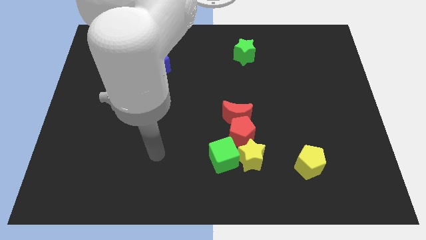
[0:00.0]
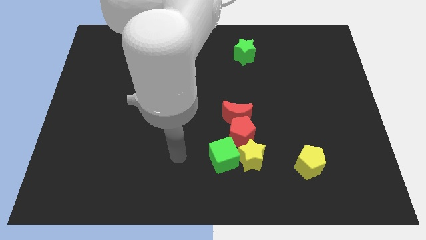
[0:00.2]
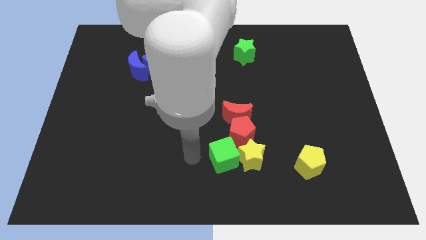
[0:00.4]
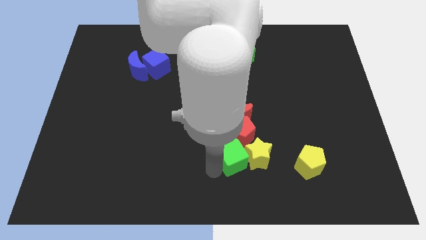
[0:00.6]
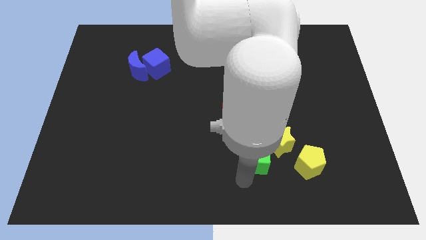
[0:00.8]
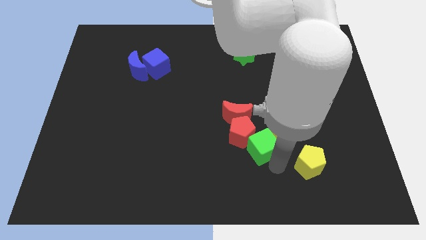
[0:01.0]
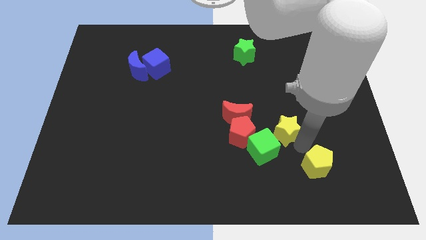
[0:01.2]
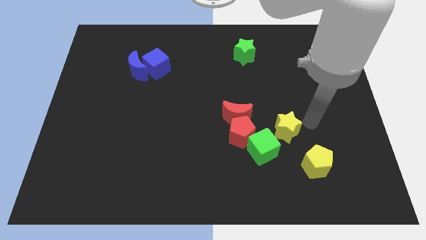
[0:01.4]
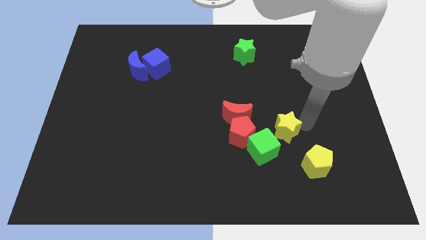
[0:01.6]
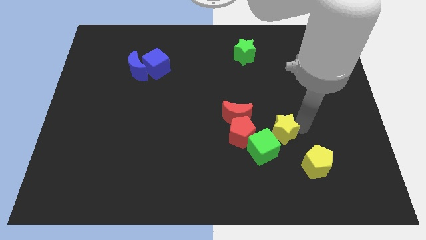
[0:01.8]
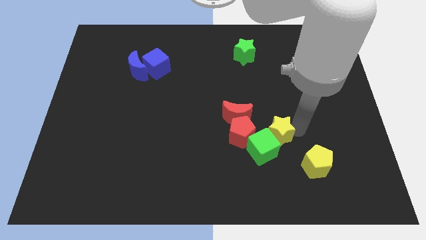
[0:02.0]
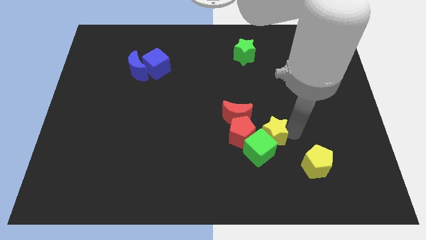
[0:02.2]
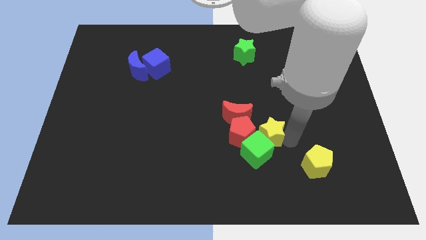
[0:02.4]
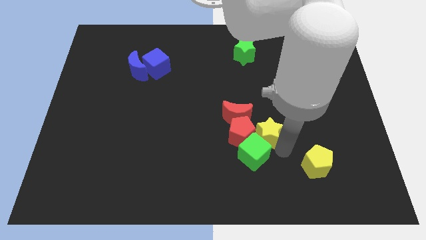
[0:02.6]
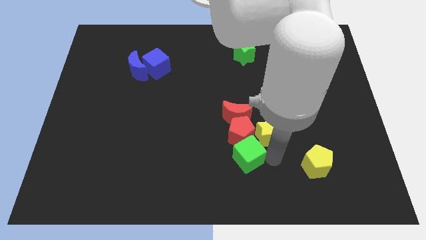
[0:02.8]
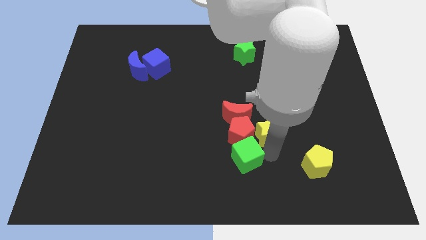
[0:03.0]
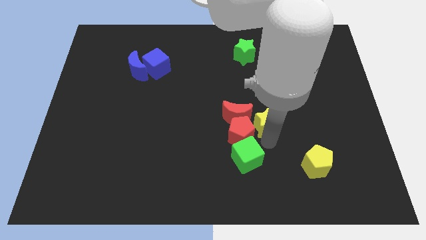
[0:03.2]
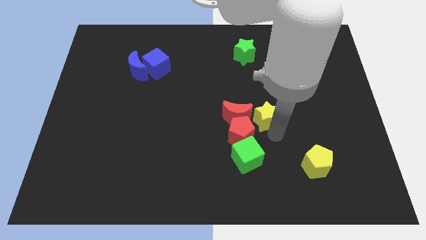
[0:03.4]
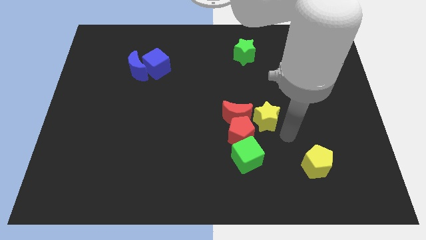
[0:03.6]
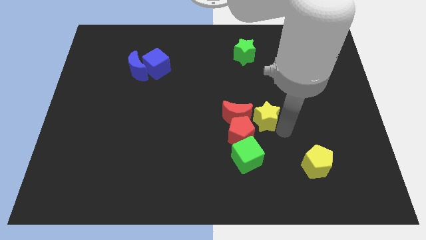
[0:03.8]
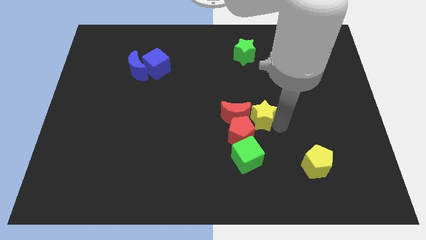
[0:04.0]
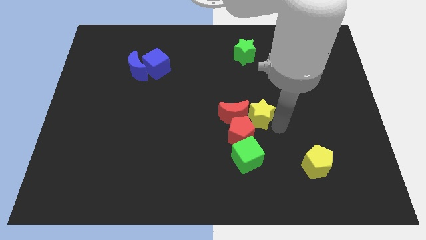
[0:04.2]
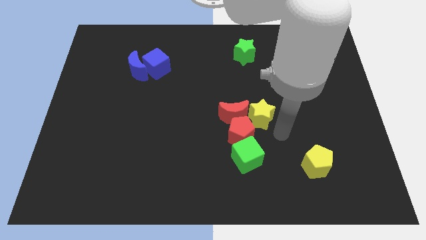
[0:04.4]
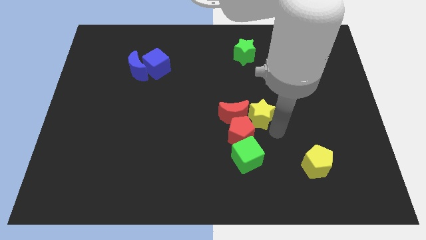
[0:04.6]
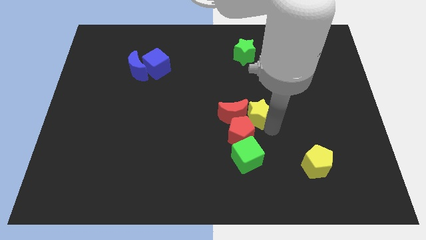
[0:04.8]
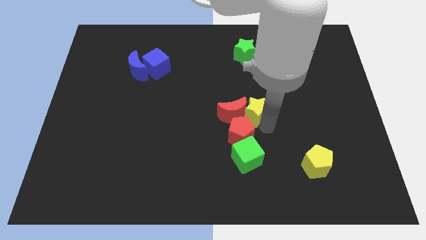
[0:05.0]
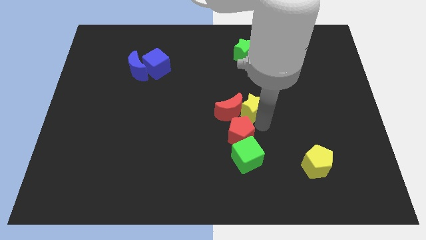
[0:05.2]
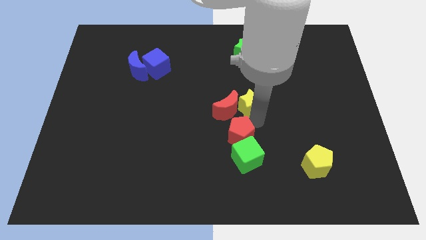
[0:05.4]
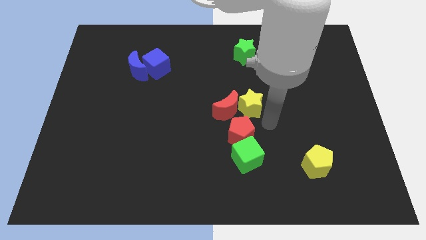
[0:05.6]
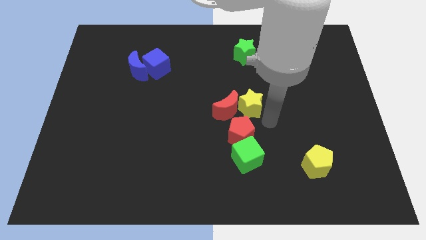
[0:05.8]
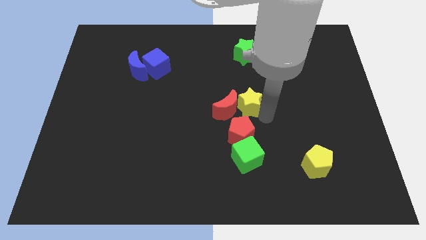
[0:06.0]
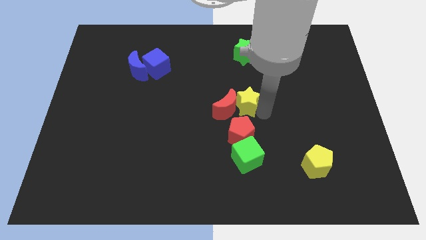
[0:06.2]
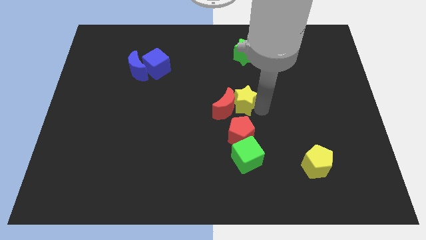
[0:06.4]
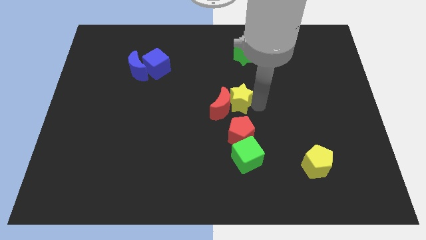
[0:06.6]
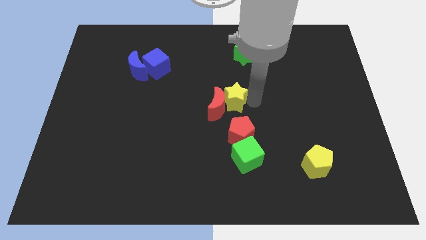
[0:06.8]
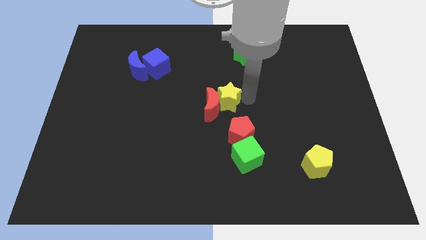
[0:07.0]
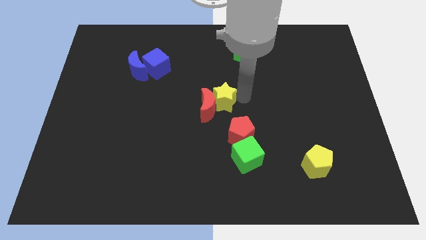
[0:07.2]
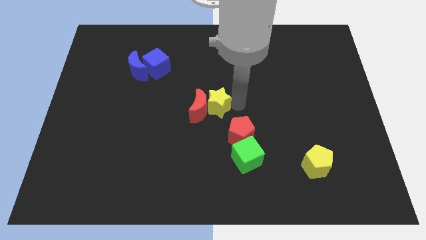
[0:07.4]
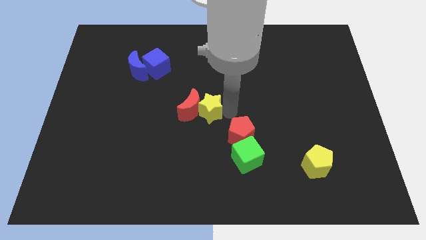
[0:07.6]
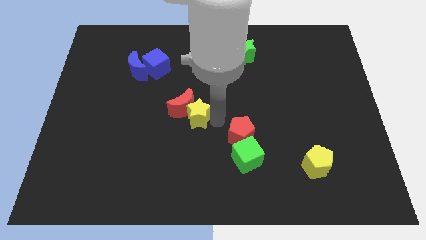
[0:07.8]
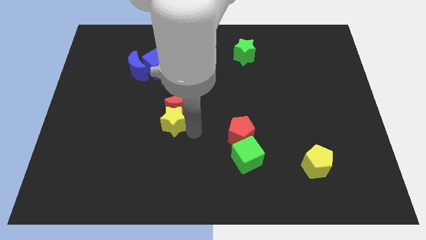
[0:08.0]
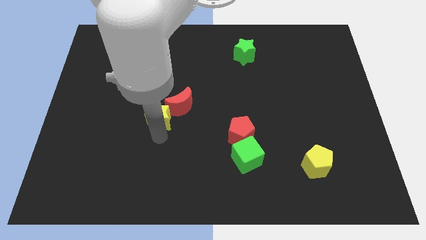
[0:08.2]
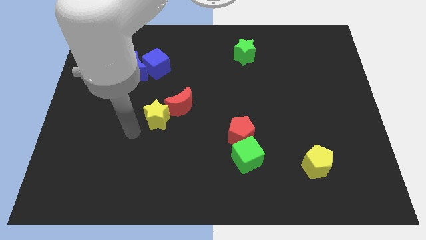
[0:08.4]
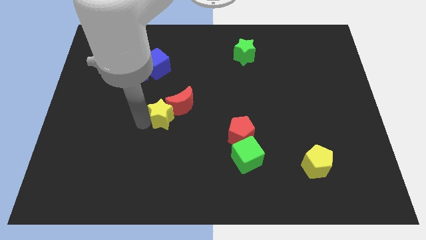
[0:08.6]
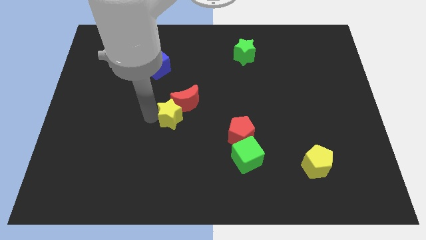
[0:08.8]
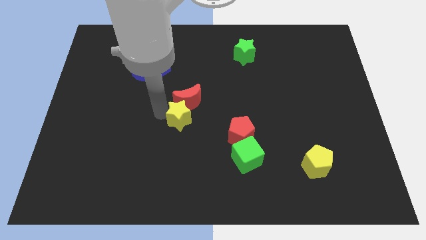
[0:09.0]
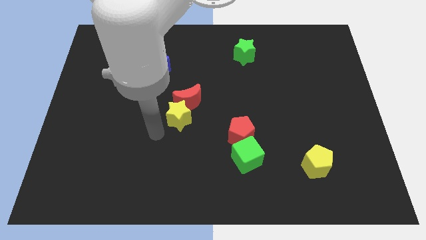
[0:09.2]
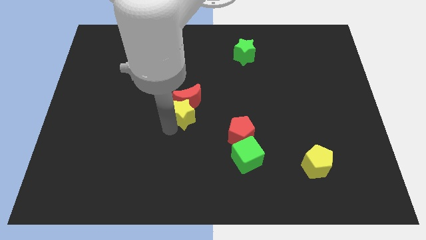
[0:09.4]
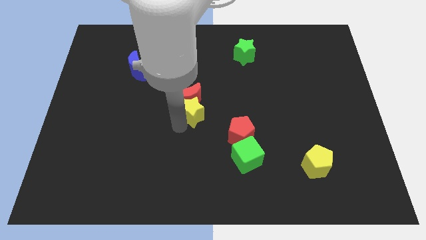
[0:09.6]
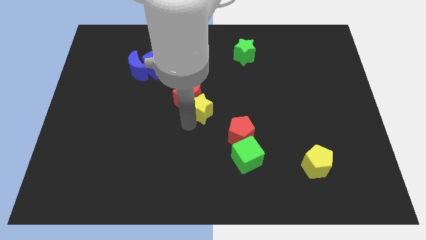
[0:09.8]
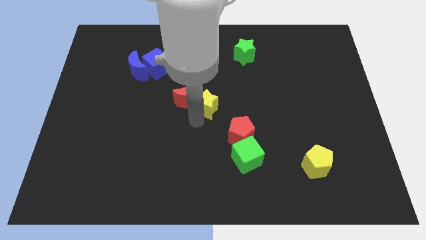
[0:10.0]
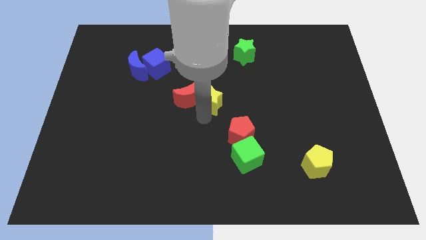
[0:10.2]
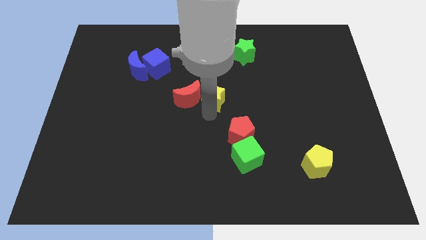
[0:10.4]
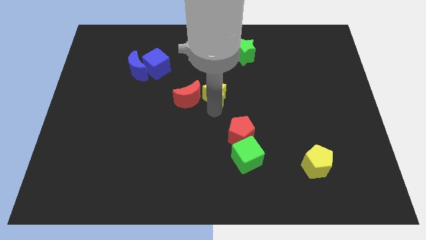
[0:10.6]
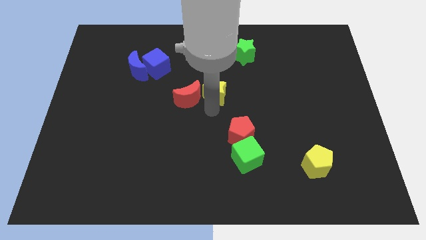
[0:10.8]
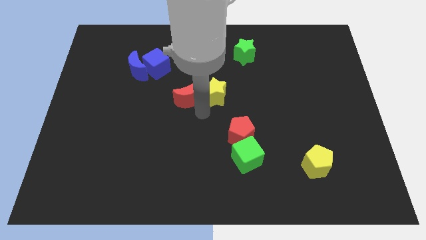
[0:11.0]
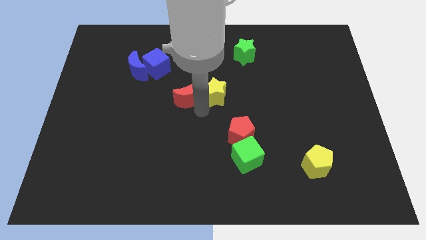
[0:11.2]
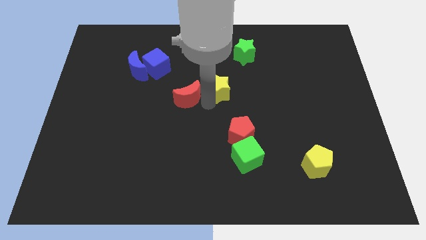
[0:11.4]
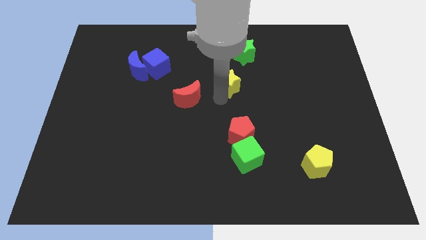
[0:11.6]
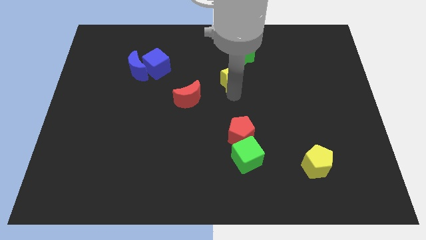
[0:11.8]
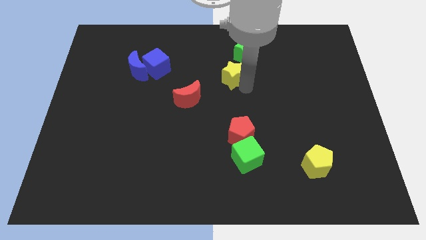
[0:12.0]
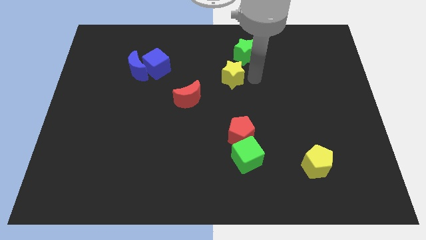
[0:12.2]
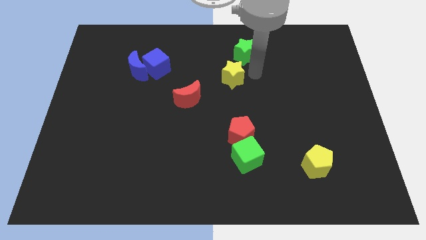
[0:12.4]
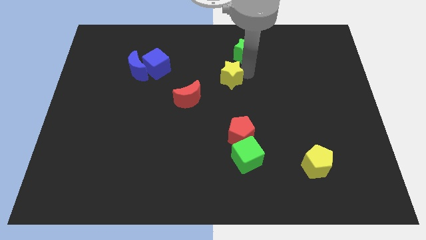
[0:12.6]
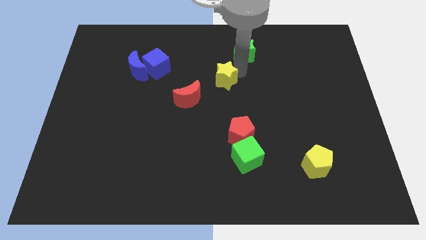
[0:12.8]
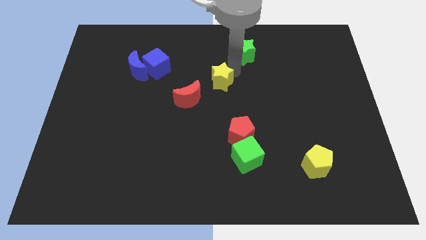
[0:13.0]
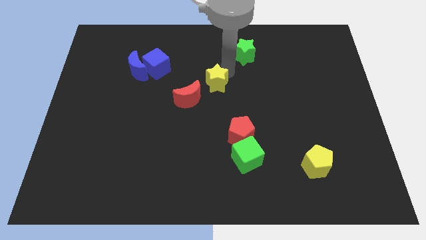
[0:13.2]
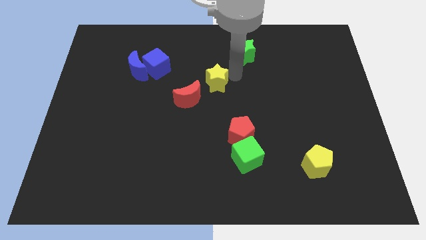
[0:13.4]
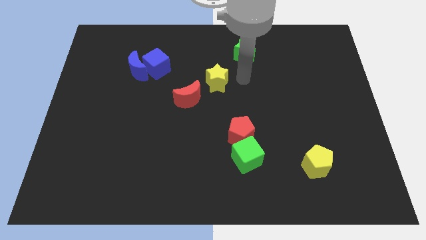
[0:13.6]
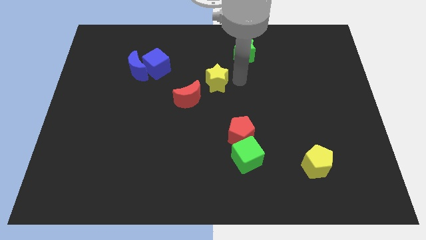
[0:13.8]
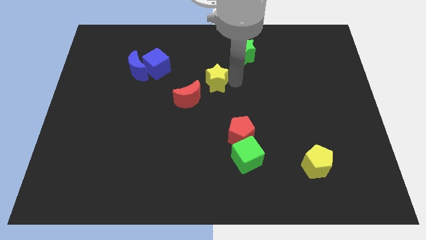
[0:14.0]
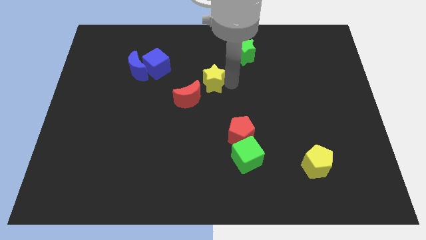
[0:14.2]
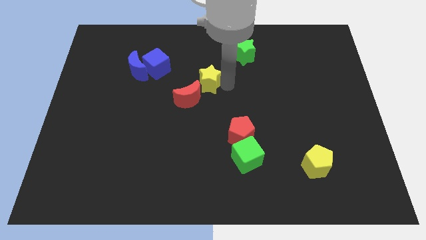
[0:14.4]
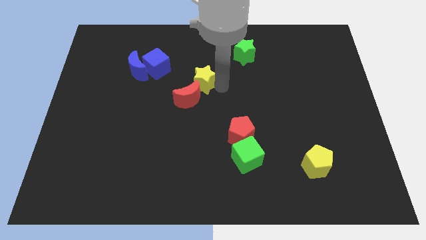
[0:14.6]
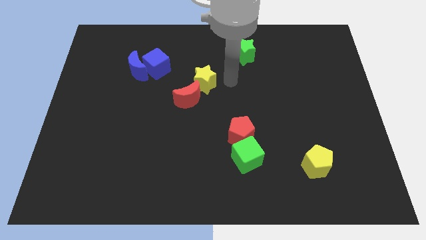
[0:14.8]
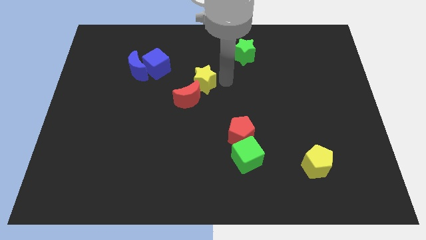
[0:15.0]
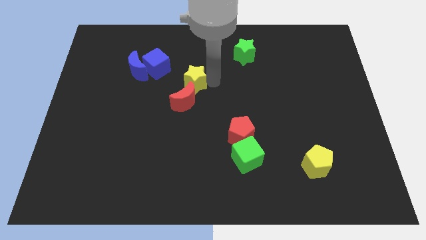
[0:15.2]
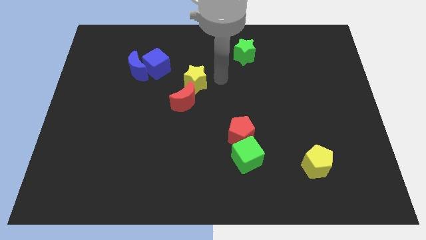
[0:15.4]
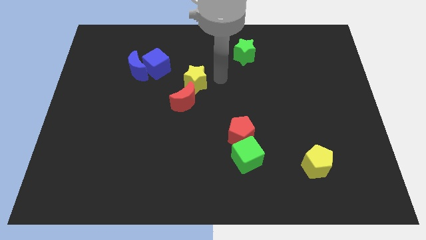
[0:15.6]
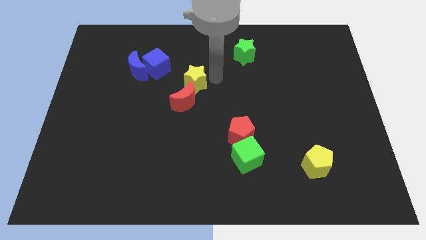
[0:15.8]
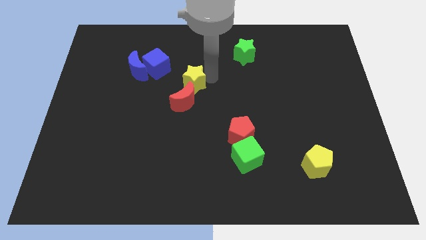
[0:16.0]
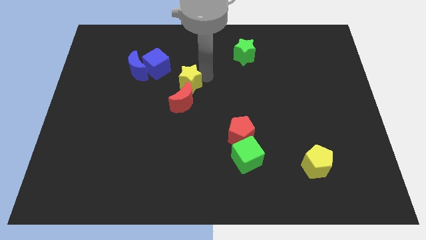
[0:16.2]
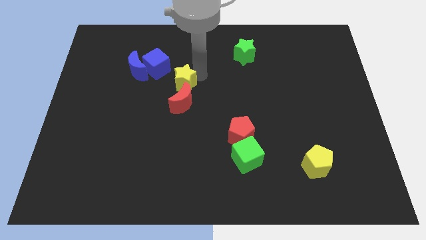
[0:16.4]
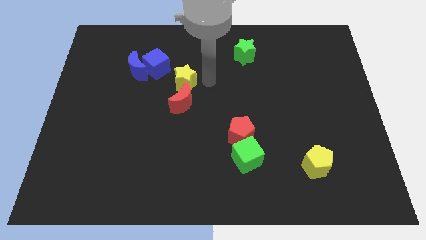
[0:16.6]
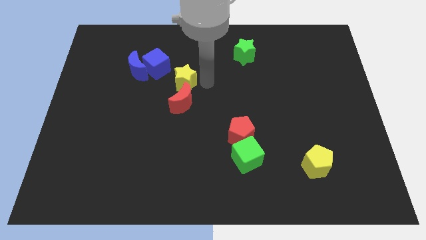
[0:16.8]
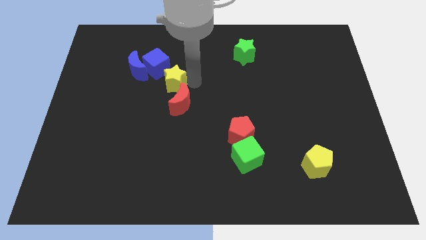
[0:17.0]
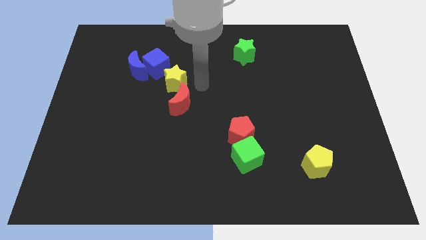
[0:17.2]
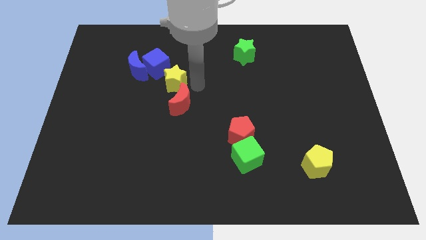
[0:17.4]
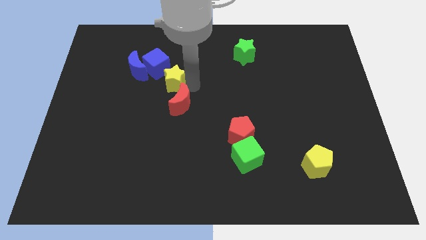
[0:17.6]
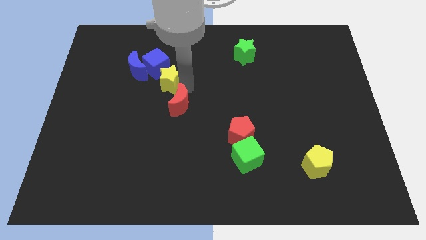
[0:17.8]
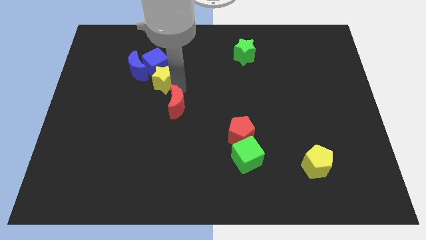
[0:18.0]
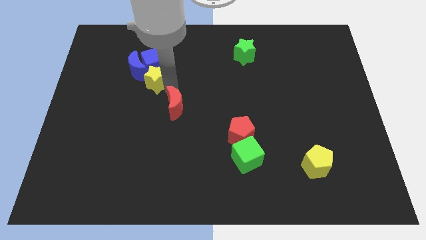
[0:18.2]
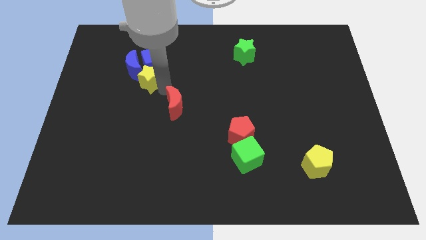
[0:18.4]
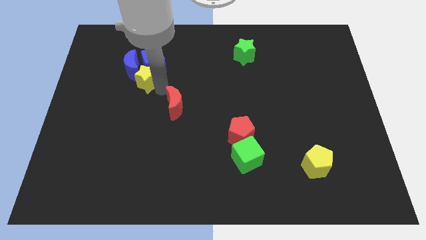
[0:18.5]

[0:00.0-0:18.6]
put the yellow star next to the blue moon
